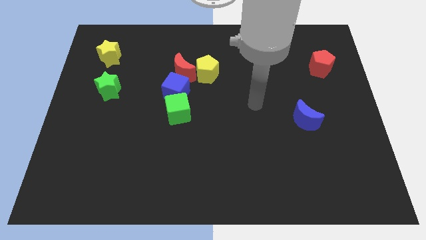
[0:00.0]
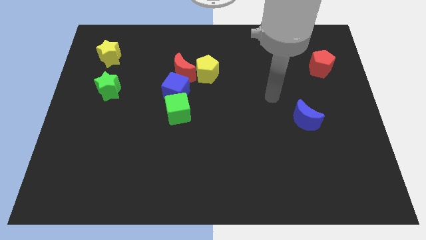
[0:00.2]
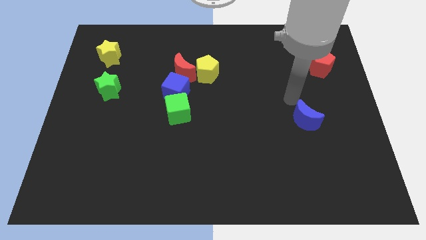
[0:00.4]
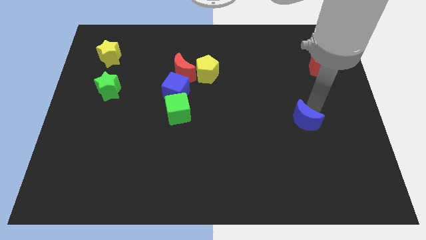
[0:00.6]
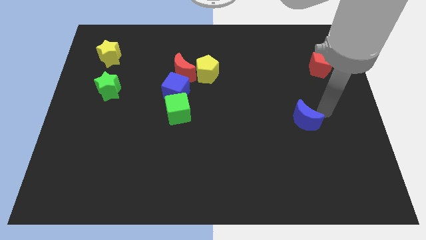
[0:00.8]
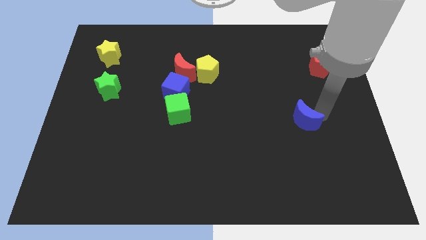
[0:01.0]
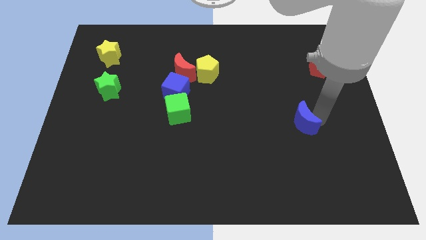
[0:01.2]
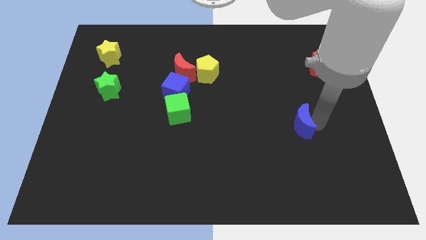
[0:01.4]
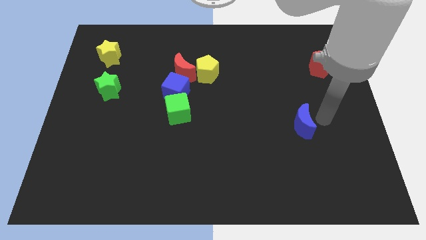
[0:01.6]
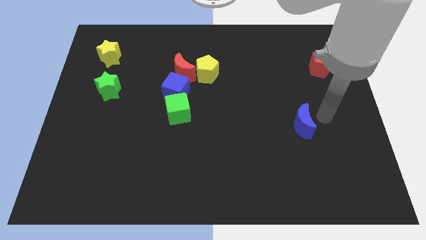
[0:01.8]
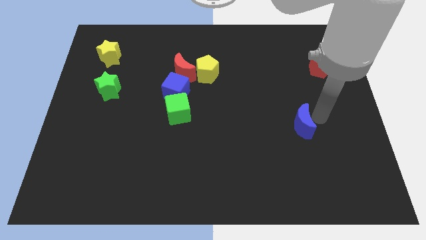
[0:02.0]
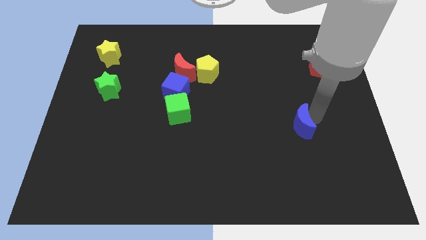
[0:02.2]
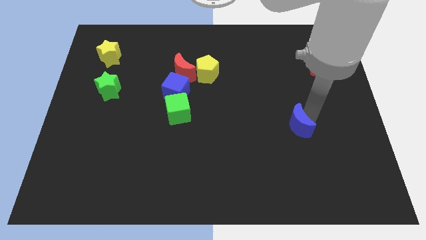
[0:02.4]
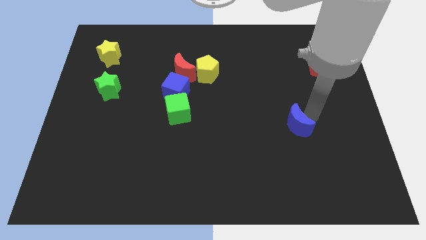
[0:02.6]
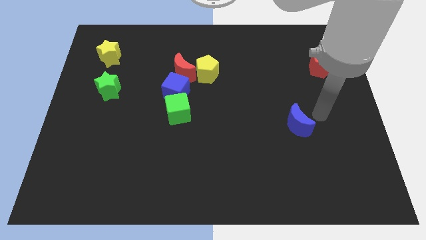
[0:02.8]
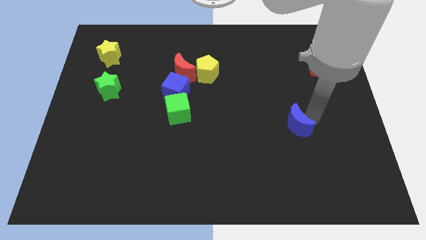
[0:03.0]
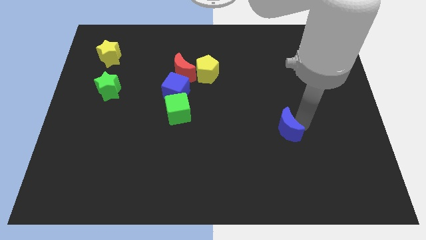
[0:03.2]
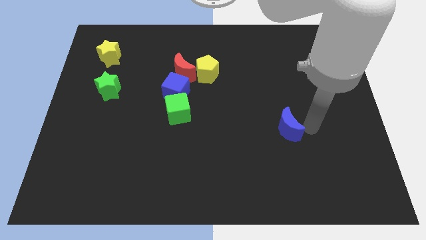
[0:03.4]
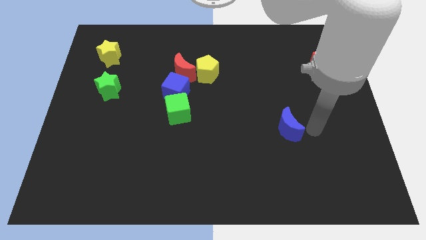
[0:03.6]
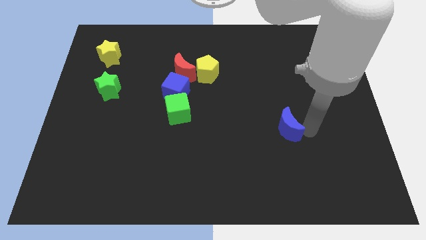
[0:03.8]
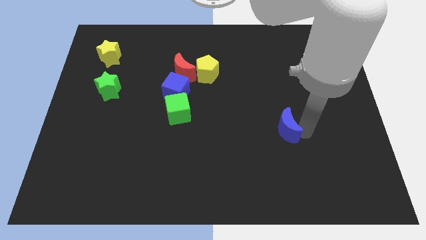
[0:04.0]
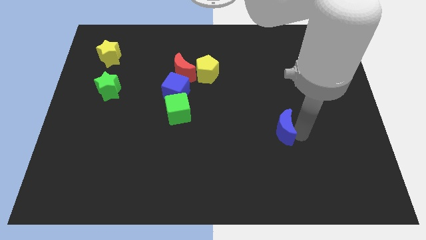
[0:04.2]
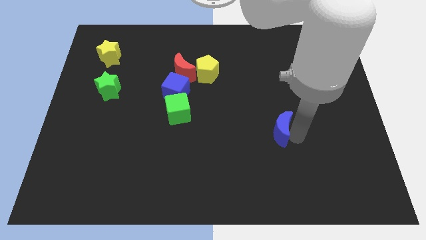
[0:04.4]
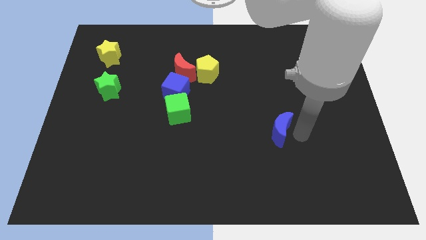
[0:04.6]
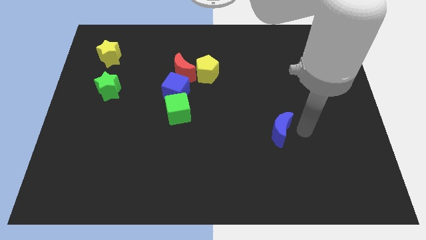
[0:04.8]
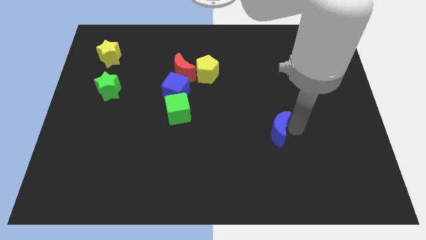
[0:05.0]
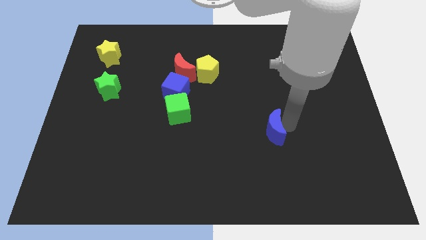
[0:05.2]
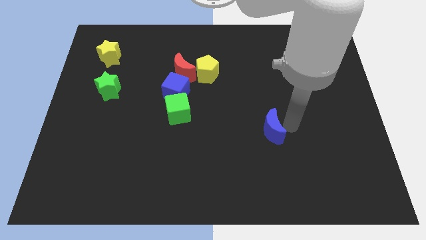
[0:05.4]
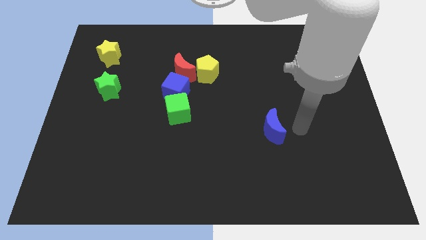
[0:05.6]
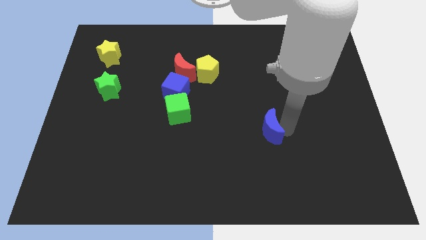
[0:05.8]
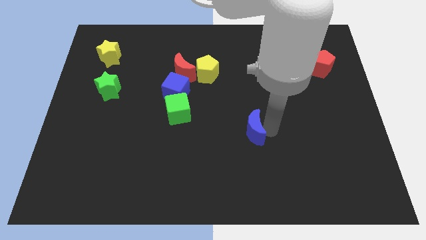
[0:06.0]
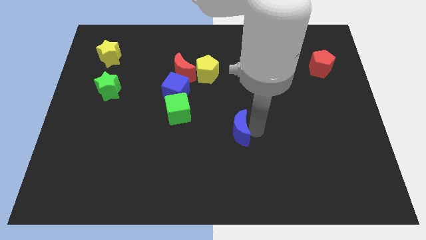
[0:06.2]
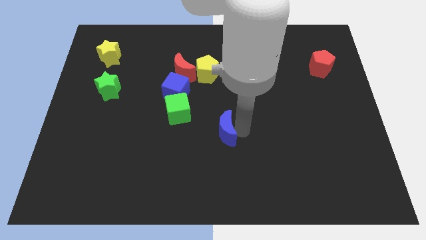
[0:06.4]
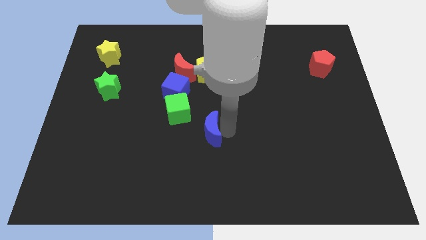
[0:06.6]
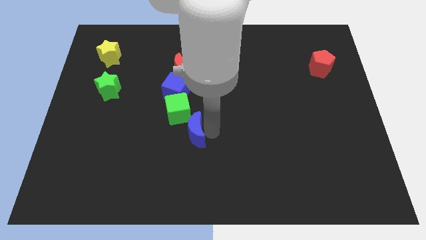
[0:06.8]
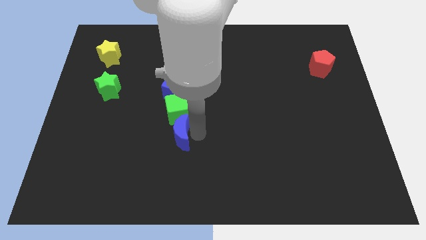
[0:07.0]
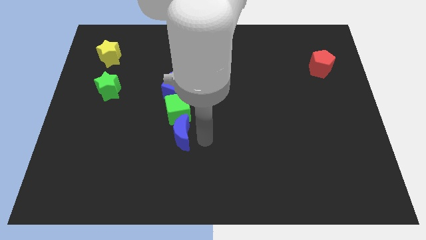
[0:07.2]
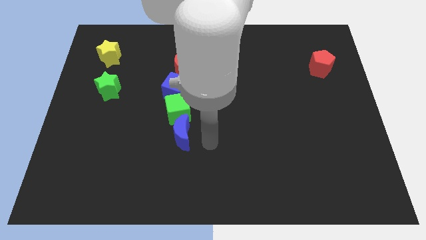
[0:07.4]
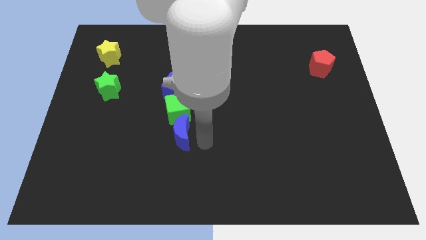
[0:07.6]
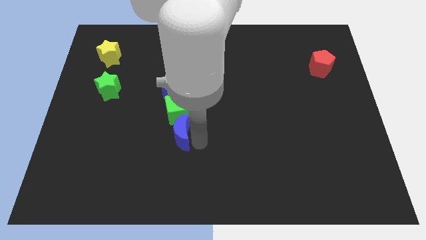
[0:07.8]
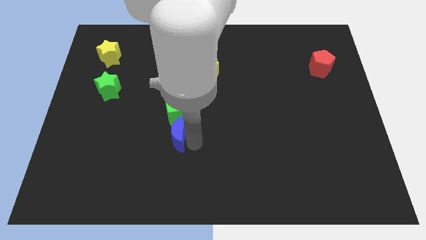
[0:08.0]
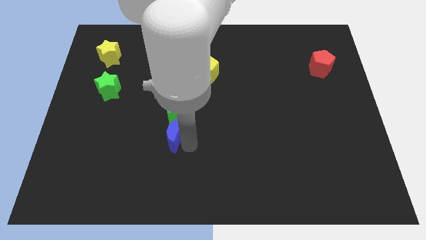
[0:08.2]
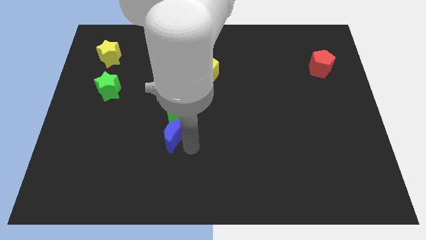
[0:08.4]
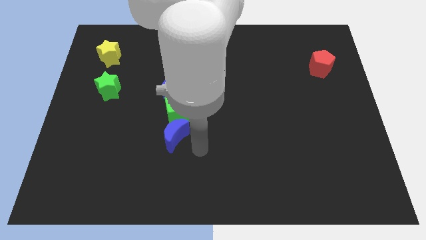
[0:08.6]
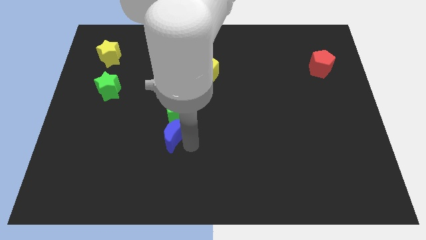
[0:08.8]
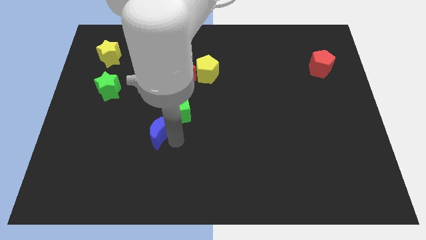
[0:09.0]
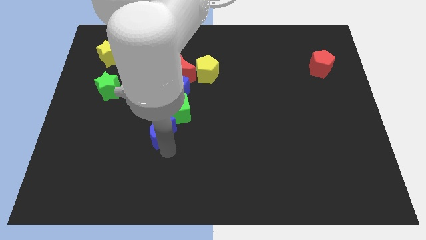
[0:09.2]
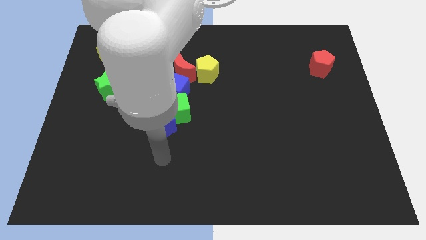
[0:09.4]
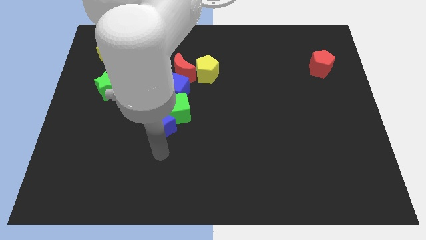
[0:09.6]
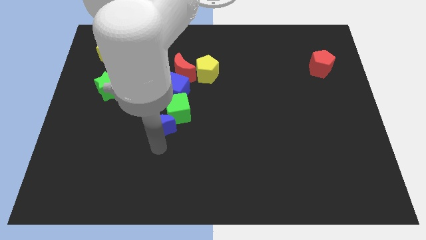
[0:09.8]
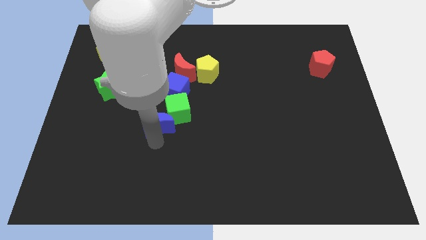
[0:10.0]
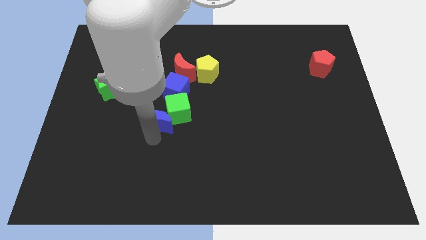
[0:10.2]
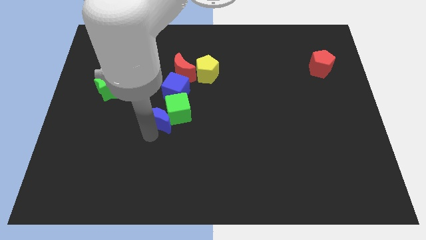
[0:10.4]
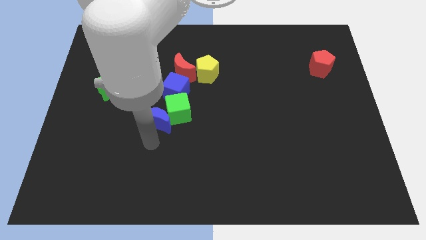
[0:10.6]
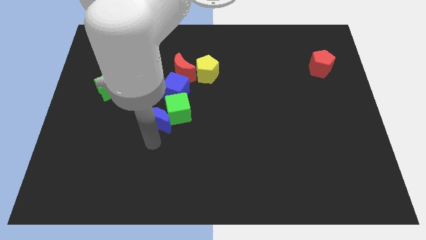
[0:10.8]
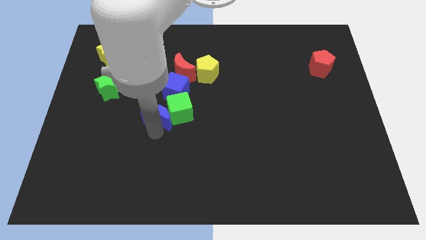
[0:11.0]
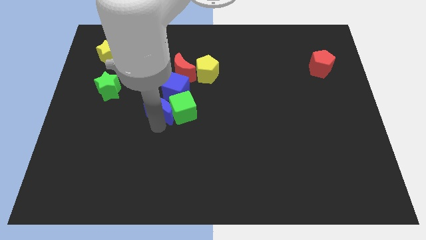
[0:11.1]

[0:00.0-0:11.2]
push the blue moon to the top left side of the green cube
